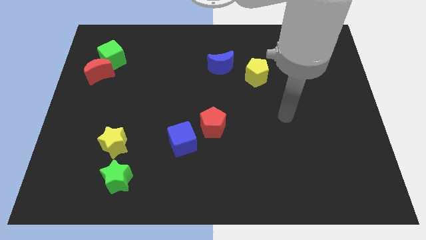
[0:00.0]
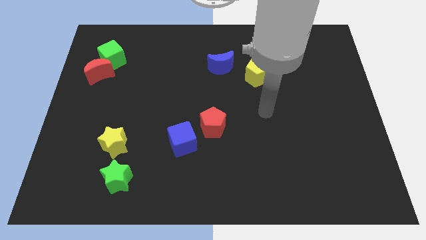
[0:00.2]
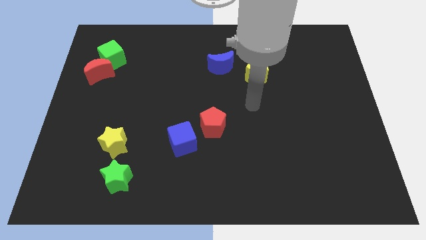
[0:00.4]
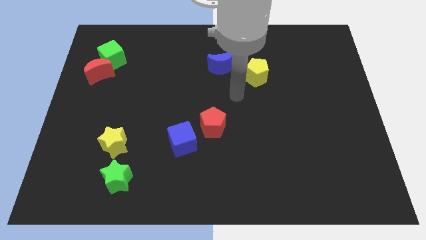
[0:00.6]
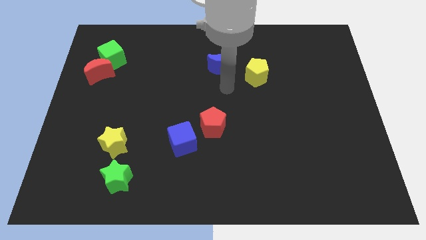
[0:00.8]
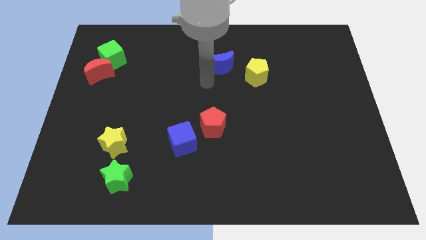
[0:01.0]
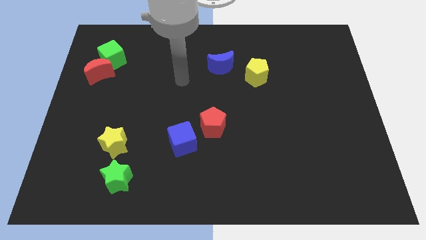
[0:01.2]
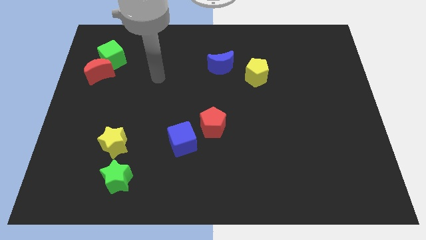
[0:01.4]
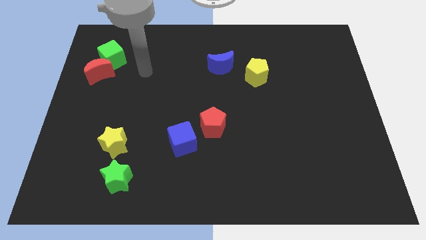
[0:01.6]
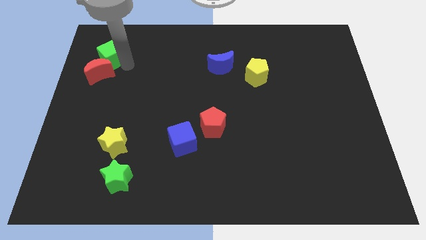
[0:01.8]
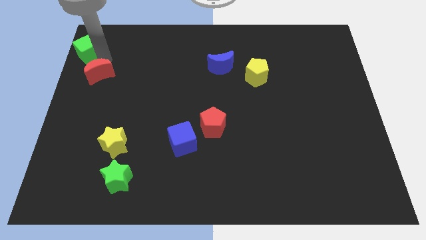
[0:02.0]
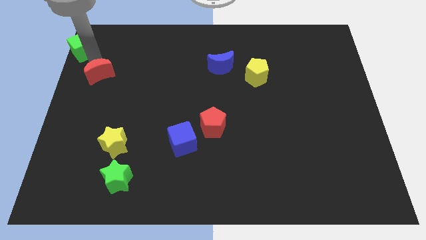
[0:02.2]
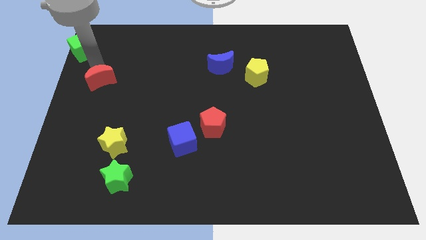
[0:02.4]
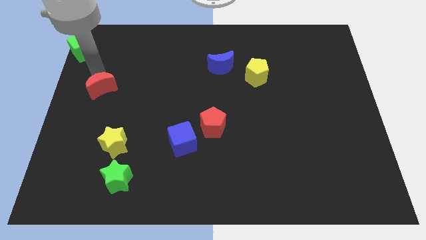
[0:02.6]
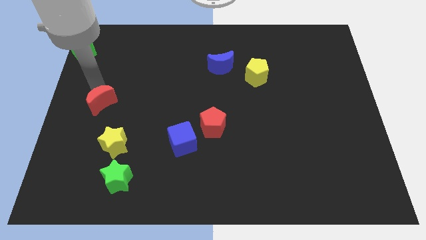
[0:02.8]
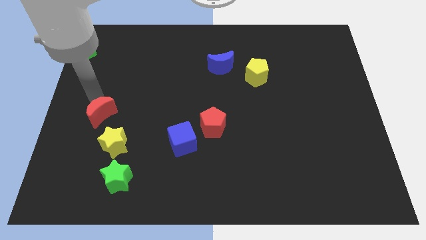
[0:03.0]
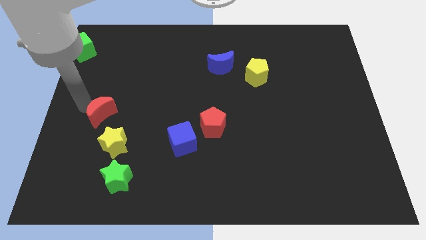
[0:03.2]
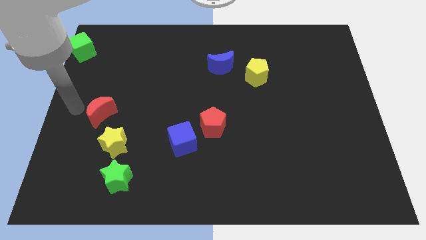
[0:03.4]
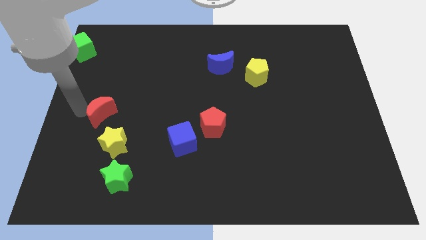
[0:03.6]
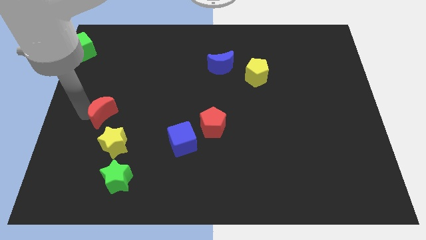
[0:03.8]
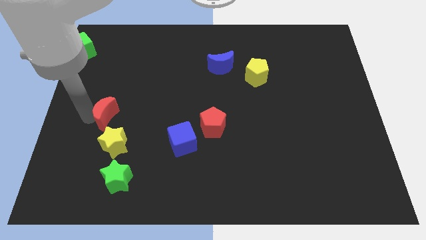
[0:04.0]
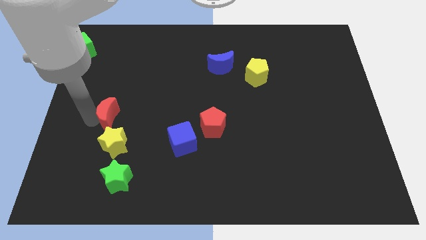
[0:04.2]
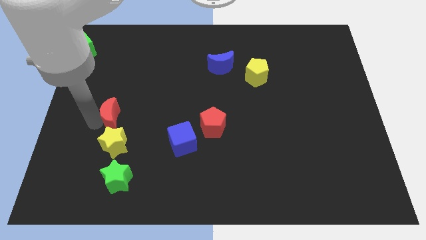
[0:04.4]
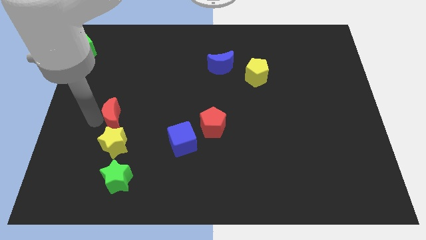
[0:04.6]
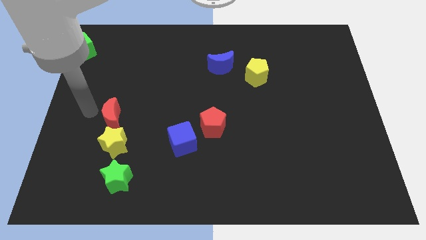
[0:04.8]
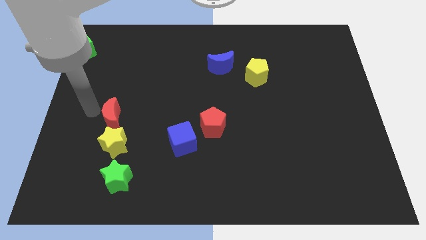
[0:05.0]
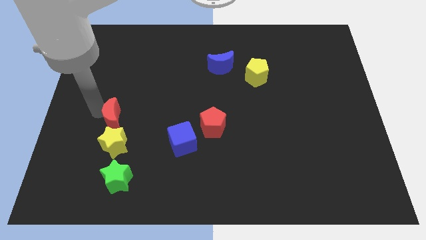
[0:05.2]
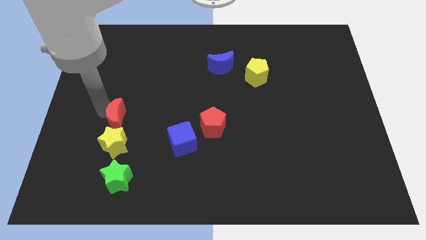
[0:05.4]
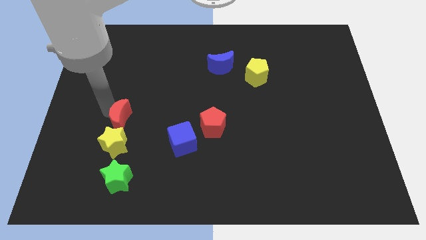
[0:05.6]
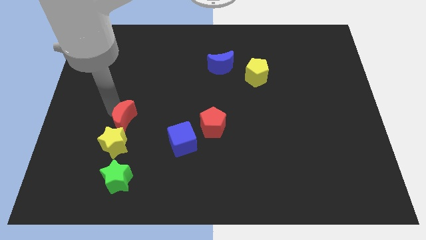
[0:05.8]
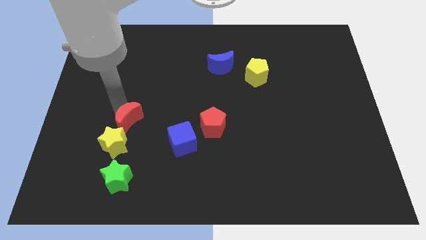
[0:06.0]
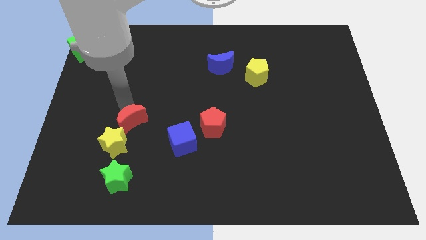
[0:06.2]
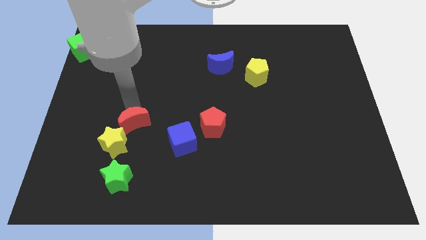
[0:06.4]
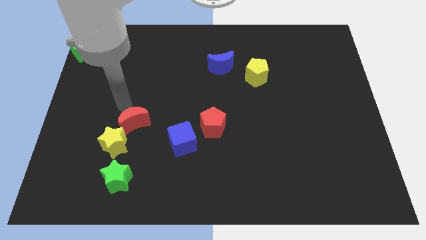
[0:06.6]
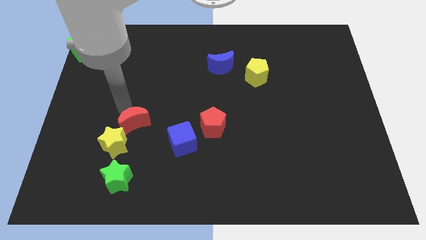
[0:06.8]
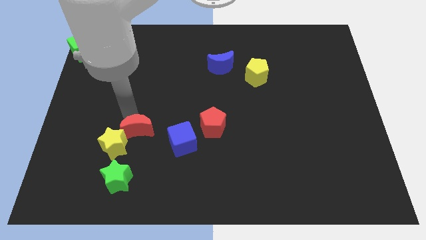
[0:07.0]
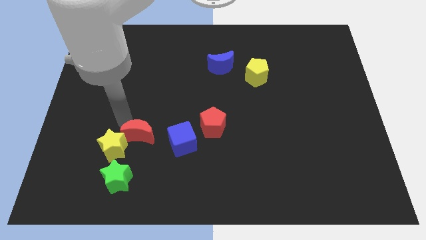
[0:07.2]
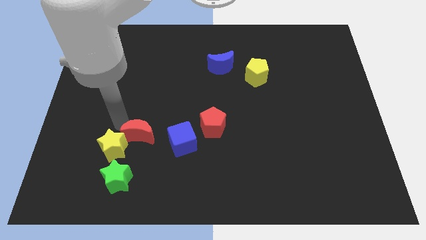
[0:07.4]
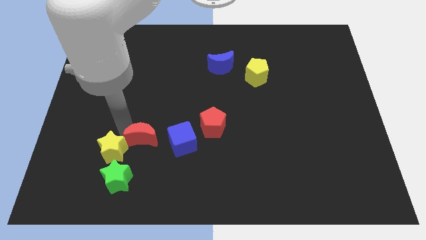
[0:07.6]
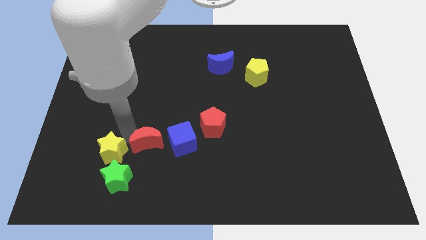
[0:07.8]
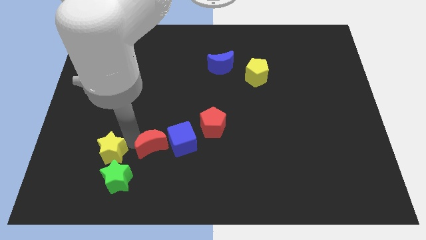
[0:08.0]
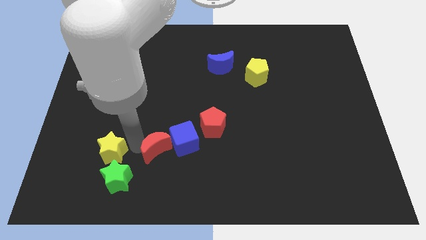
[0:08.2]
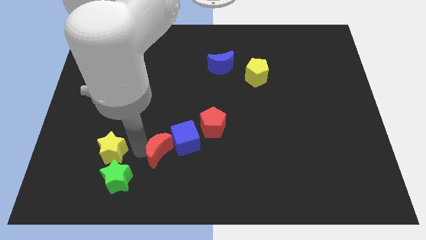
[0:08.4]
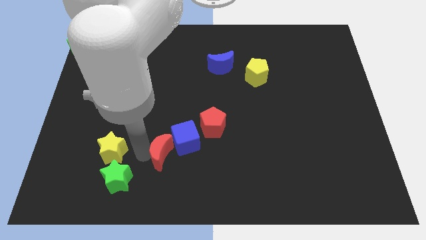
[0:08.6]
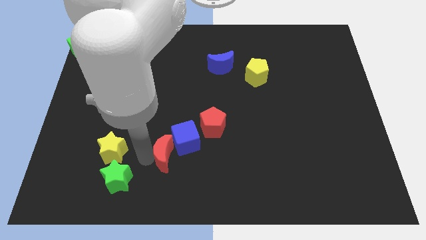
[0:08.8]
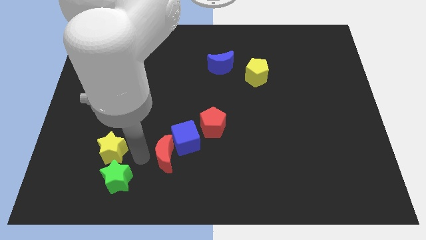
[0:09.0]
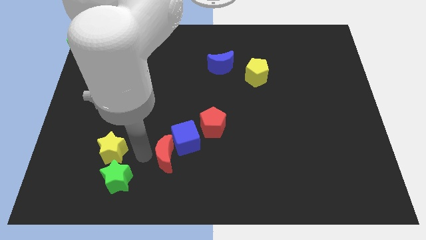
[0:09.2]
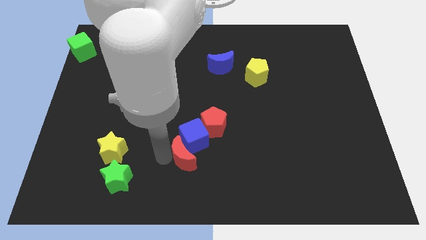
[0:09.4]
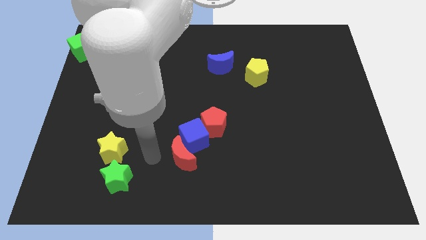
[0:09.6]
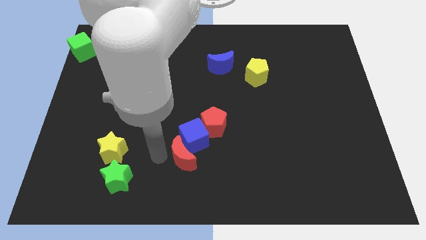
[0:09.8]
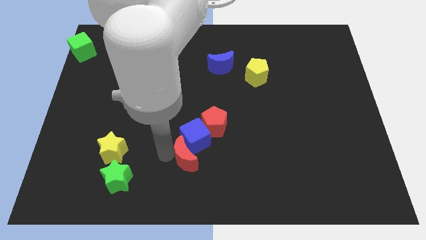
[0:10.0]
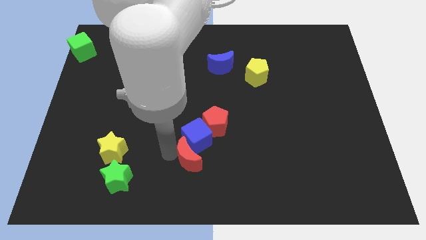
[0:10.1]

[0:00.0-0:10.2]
put the red moon to the bottom right of the blue cube

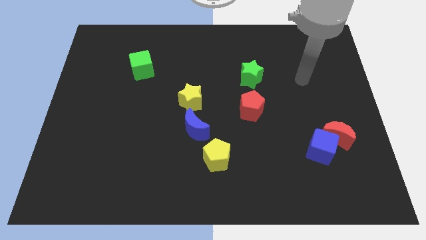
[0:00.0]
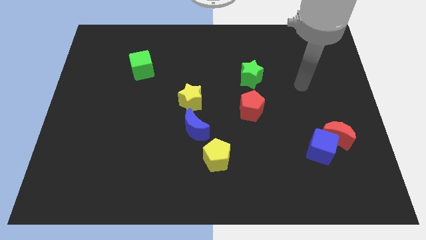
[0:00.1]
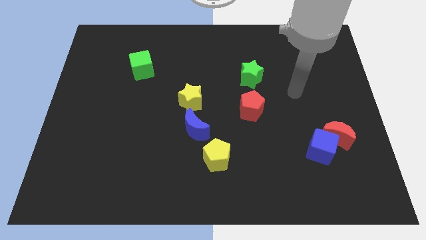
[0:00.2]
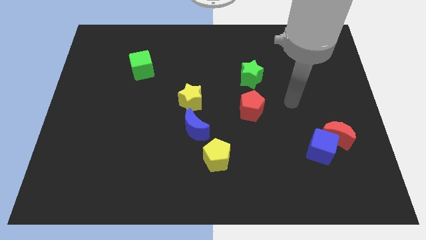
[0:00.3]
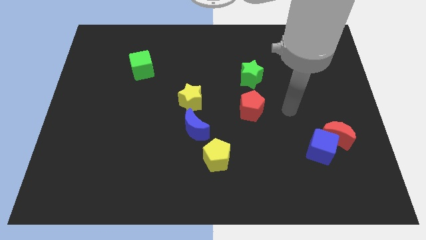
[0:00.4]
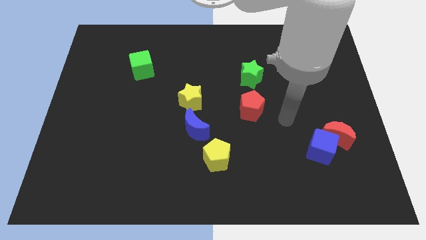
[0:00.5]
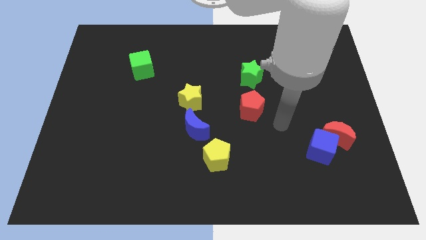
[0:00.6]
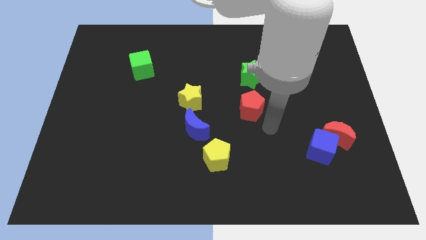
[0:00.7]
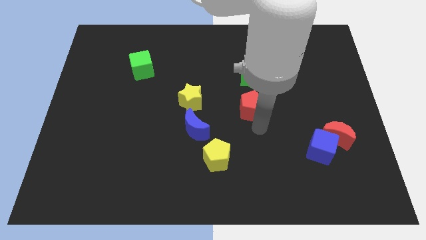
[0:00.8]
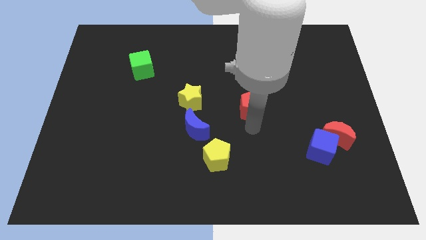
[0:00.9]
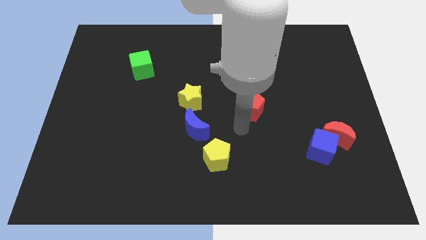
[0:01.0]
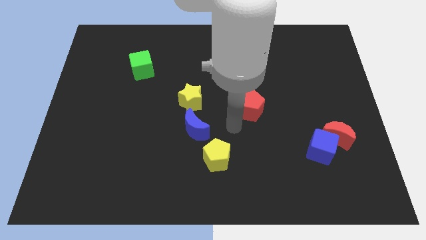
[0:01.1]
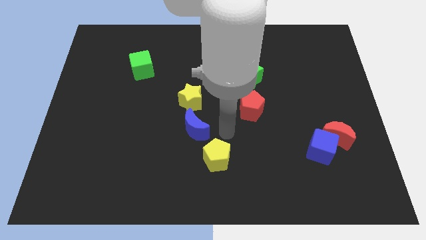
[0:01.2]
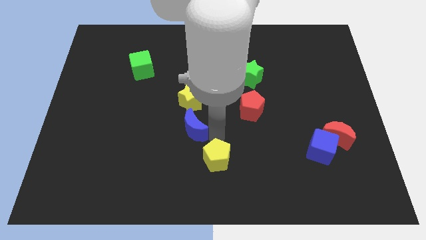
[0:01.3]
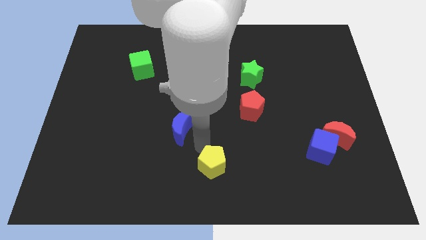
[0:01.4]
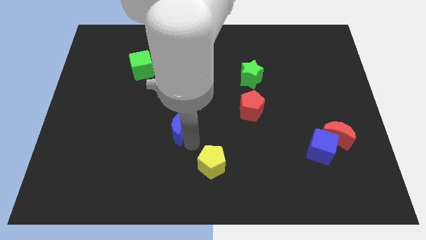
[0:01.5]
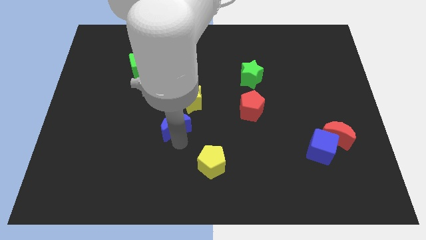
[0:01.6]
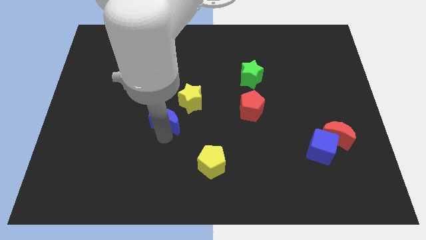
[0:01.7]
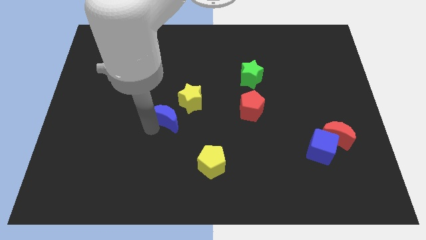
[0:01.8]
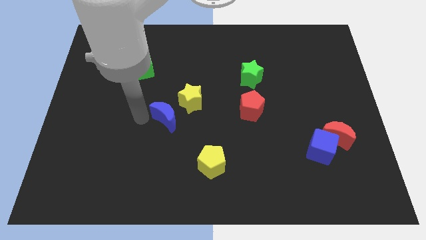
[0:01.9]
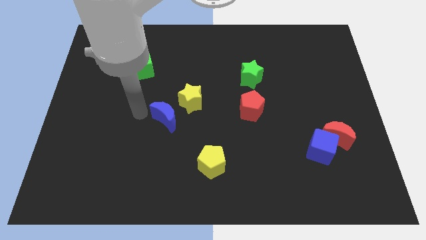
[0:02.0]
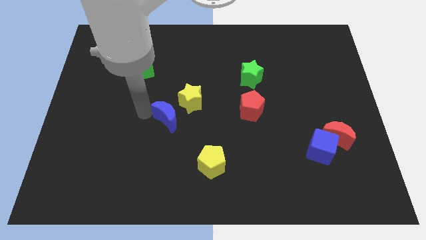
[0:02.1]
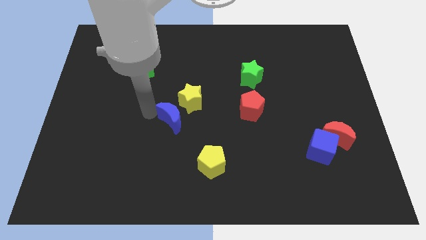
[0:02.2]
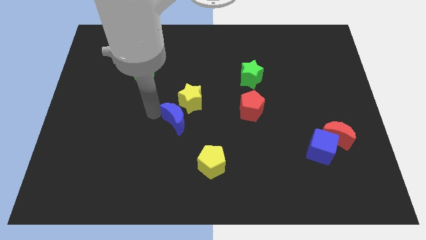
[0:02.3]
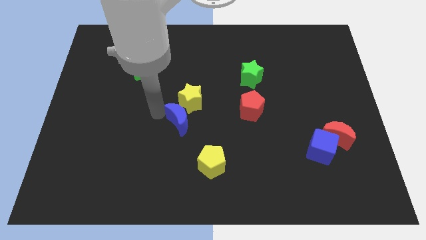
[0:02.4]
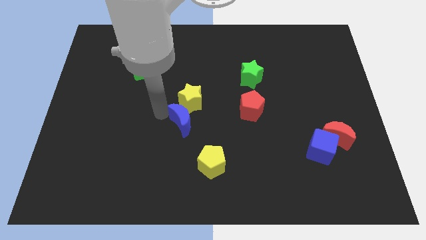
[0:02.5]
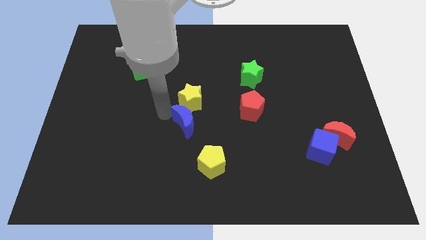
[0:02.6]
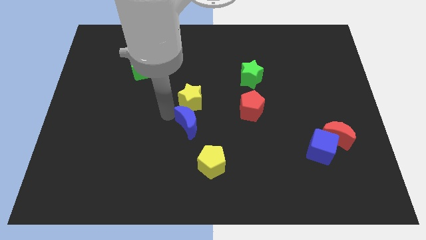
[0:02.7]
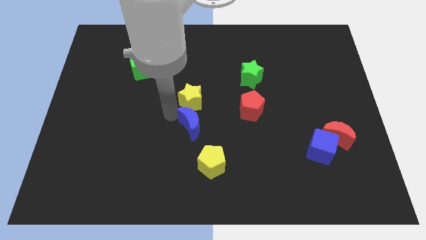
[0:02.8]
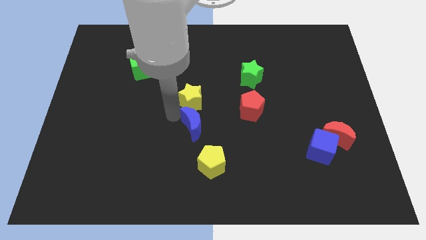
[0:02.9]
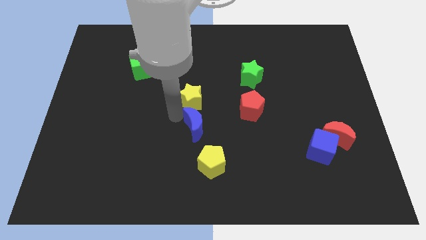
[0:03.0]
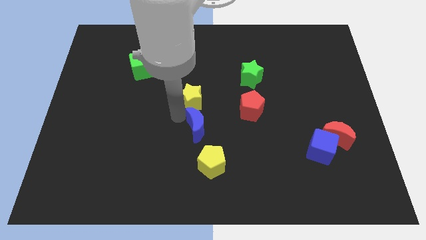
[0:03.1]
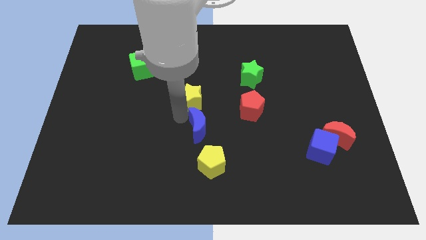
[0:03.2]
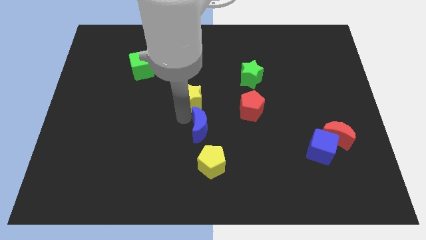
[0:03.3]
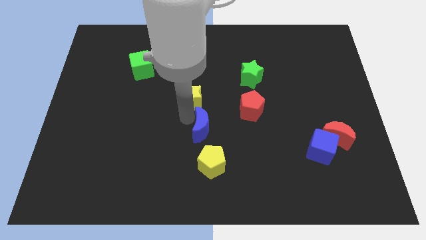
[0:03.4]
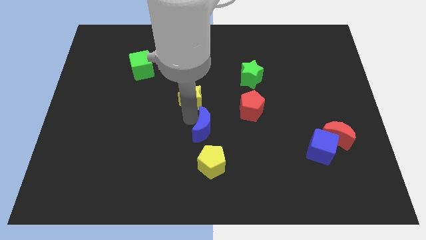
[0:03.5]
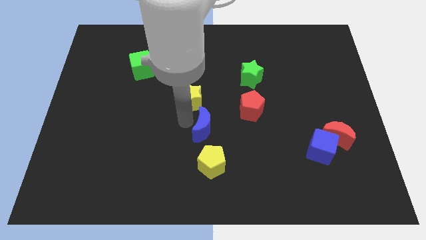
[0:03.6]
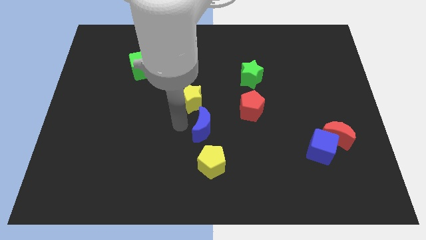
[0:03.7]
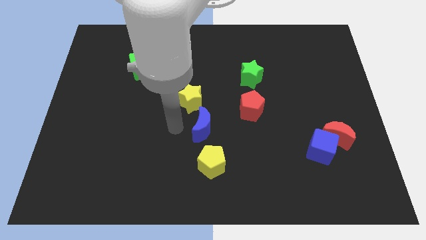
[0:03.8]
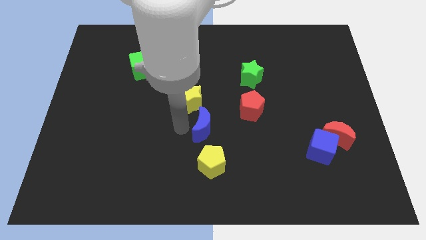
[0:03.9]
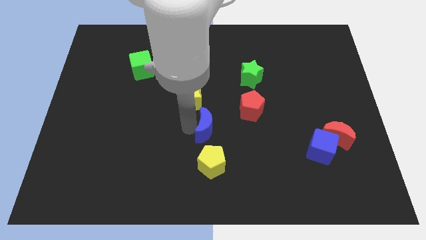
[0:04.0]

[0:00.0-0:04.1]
push the blue moon to the bottom left of the red pentagon
